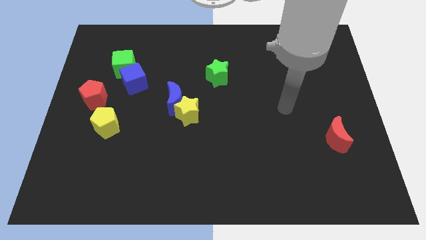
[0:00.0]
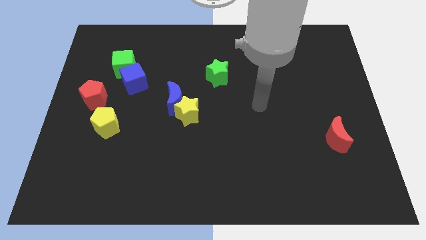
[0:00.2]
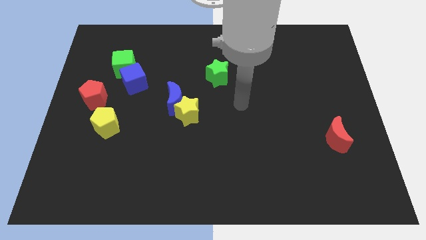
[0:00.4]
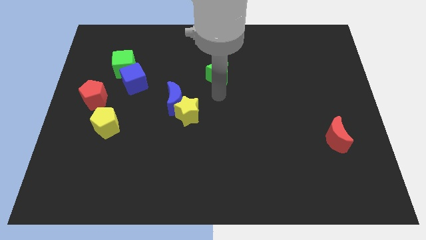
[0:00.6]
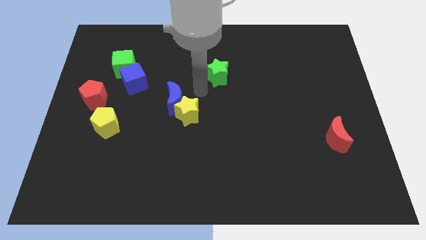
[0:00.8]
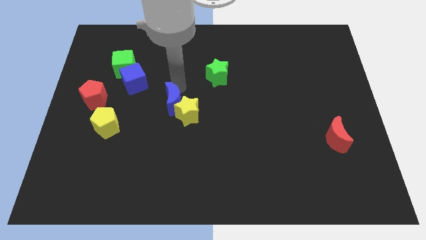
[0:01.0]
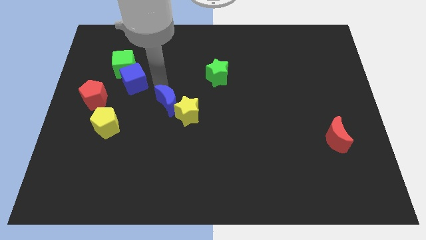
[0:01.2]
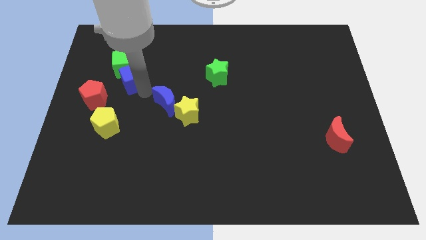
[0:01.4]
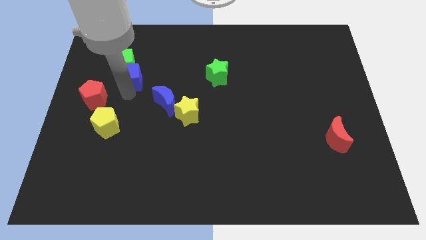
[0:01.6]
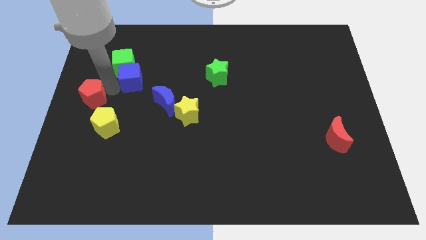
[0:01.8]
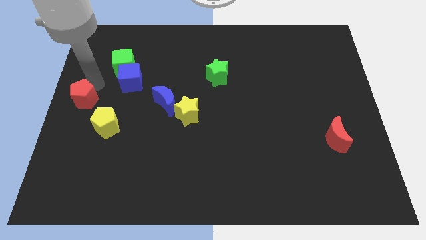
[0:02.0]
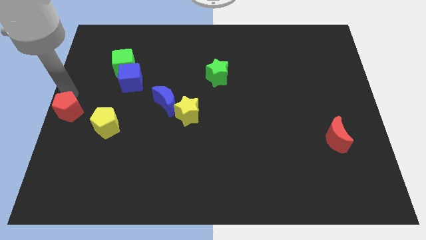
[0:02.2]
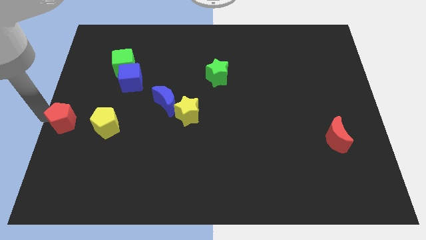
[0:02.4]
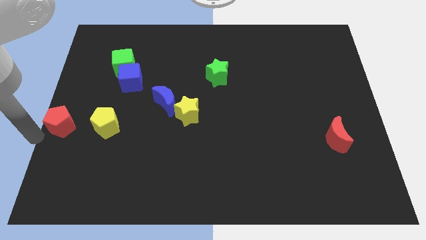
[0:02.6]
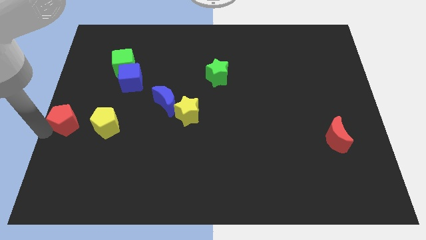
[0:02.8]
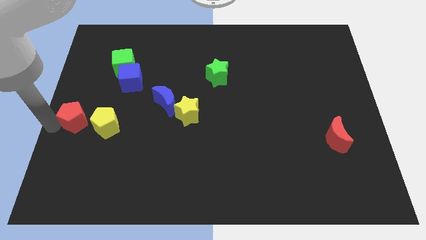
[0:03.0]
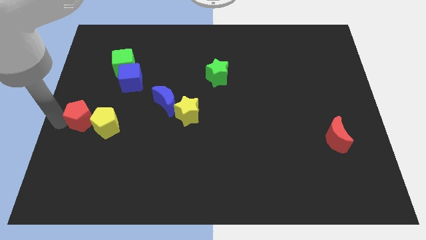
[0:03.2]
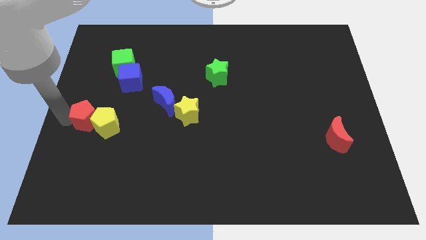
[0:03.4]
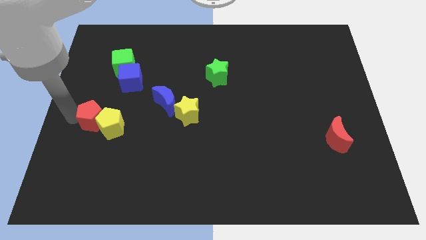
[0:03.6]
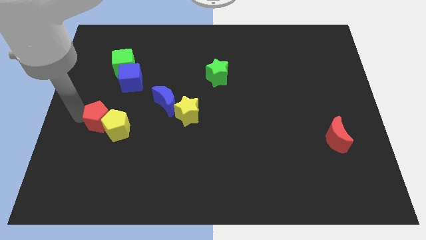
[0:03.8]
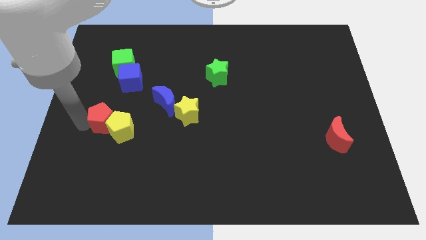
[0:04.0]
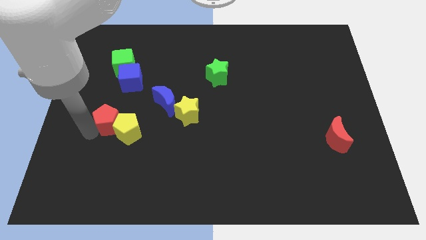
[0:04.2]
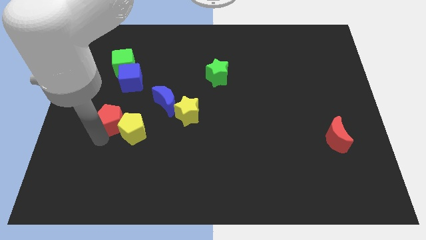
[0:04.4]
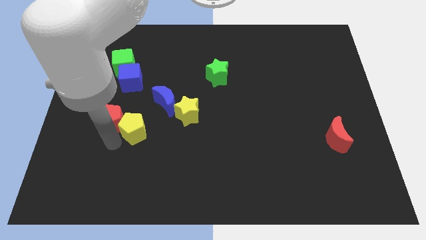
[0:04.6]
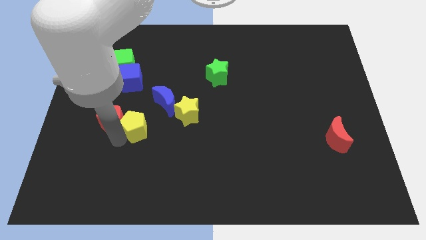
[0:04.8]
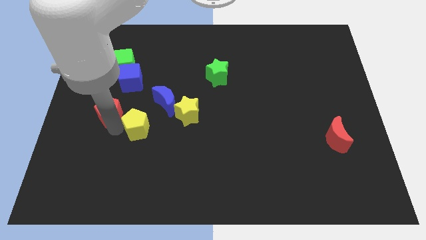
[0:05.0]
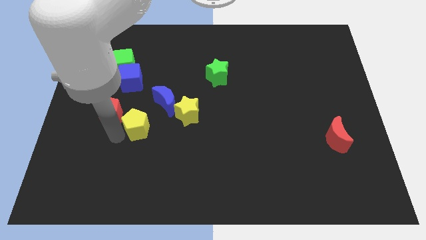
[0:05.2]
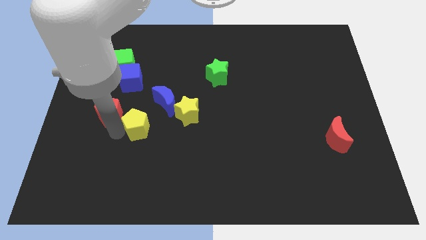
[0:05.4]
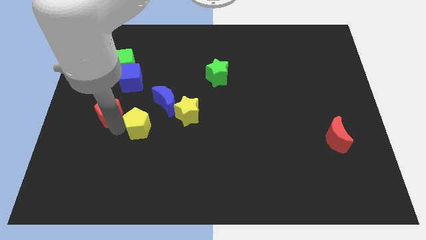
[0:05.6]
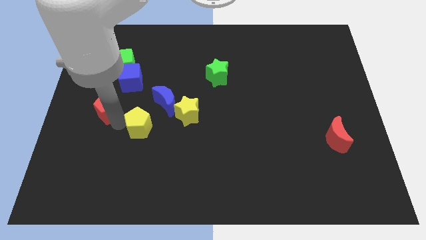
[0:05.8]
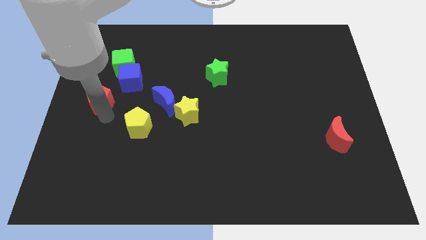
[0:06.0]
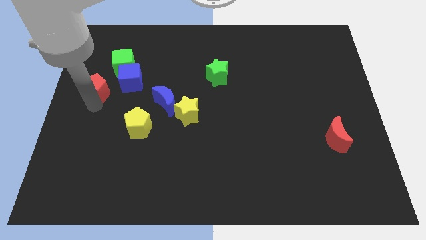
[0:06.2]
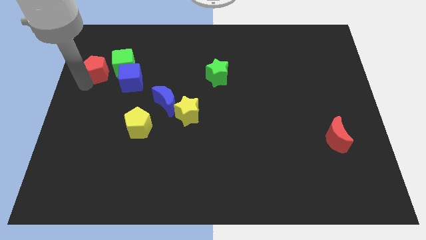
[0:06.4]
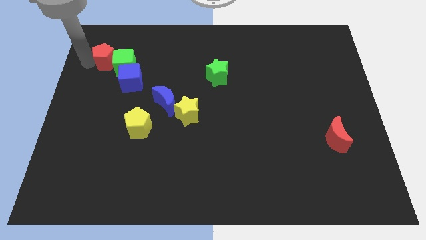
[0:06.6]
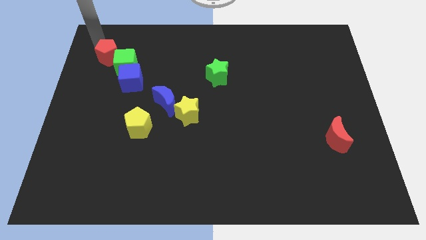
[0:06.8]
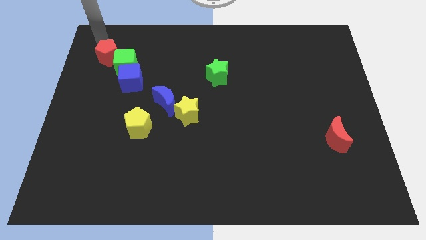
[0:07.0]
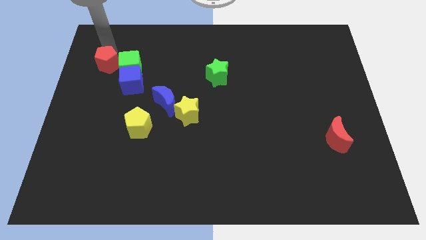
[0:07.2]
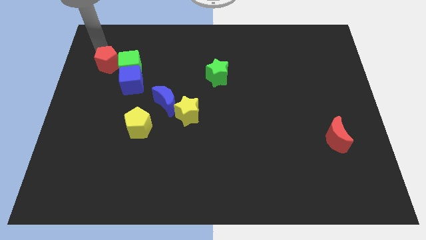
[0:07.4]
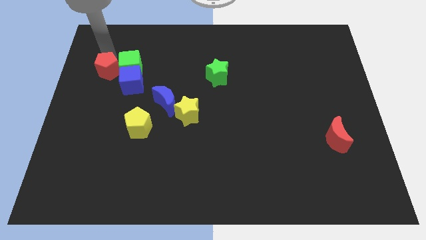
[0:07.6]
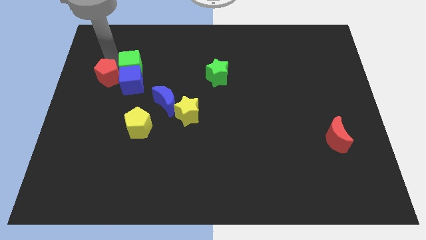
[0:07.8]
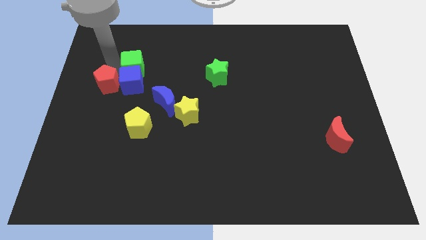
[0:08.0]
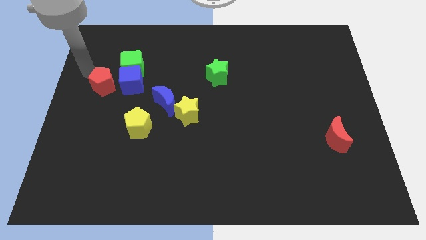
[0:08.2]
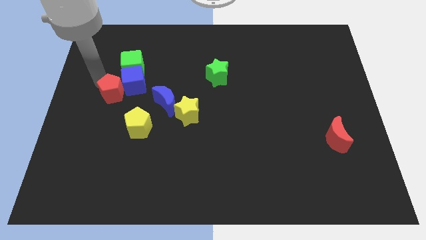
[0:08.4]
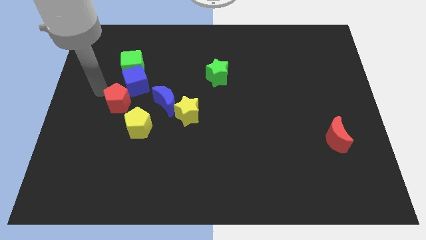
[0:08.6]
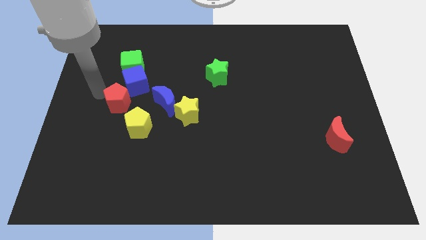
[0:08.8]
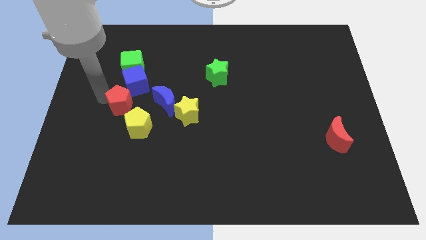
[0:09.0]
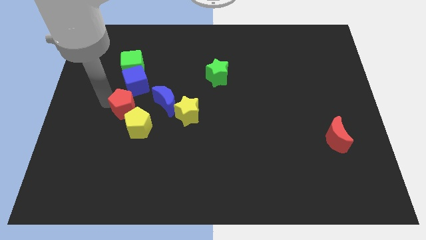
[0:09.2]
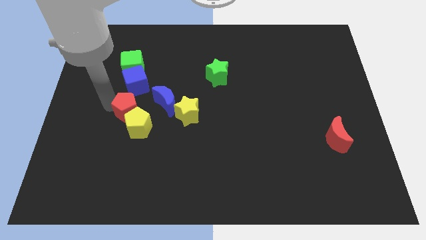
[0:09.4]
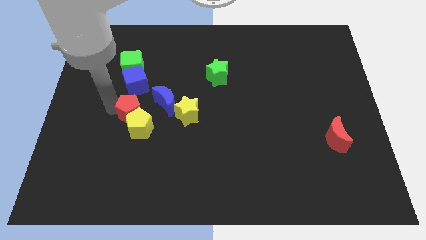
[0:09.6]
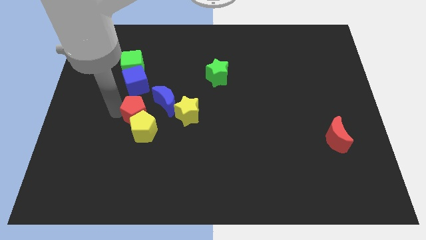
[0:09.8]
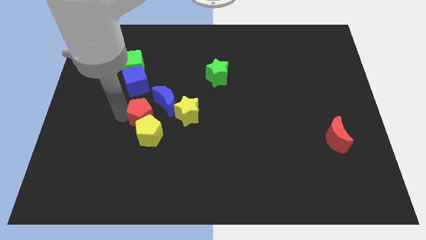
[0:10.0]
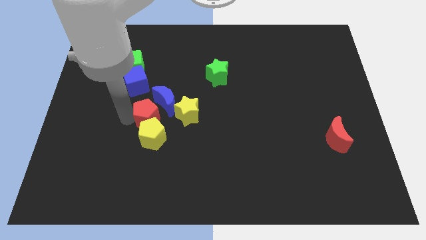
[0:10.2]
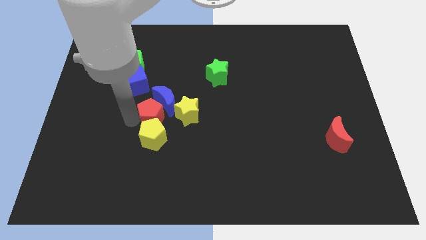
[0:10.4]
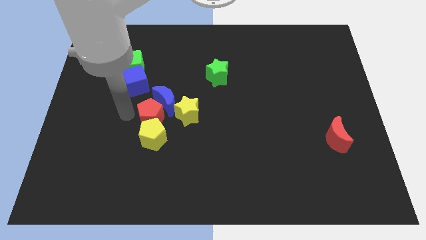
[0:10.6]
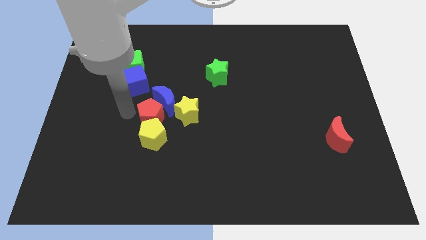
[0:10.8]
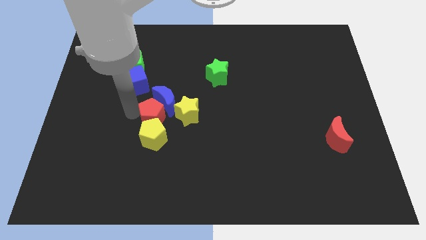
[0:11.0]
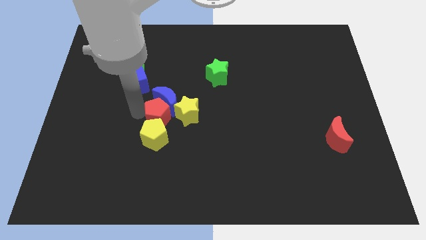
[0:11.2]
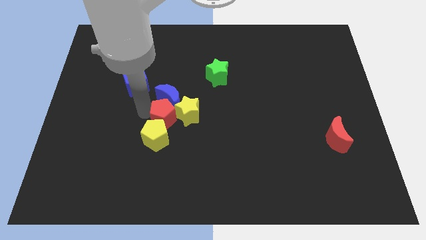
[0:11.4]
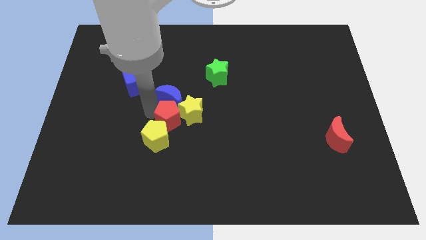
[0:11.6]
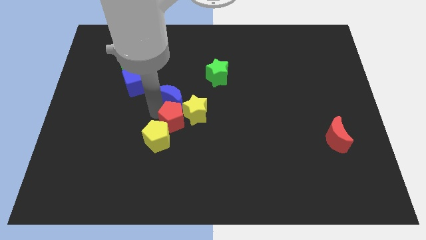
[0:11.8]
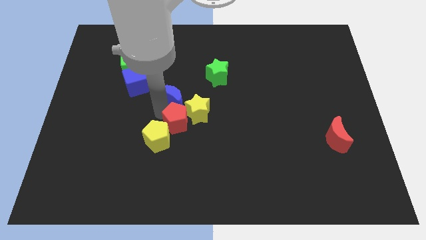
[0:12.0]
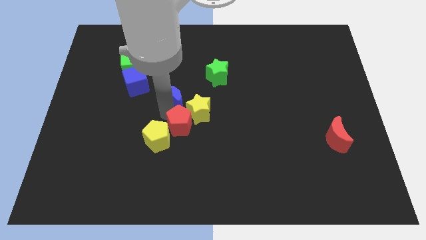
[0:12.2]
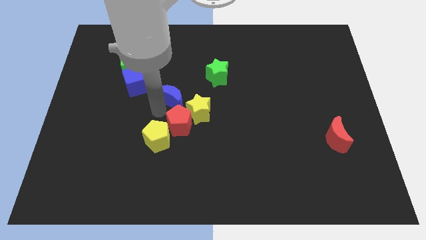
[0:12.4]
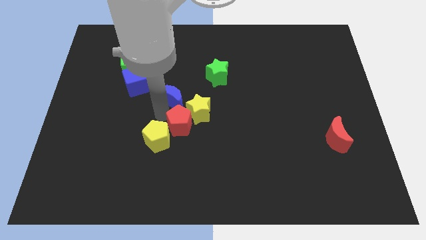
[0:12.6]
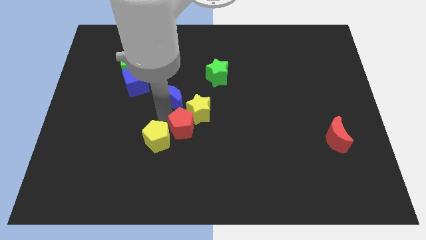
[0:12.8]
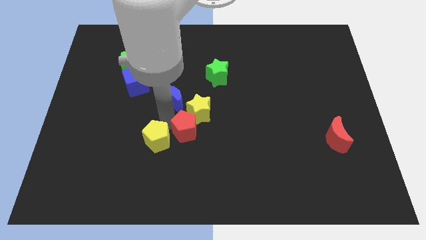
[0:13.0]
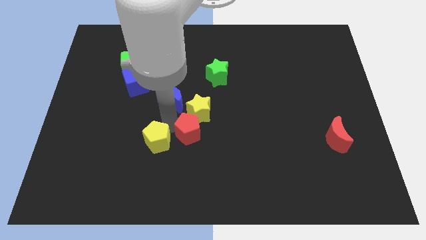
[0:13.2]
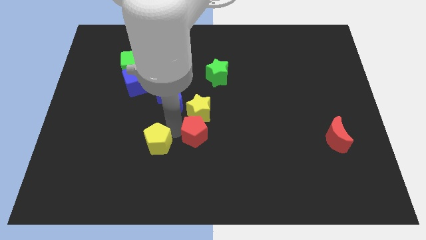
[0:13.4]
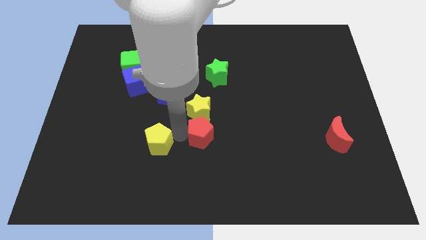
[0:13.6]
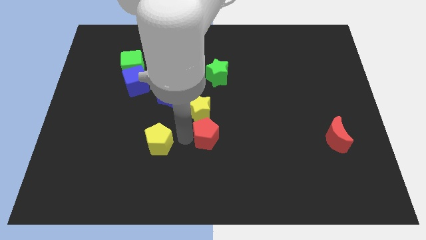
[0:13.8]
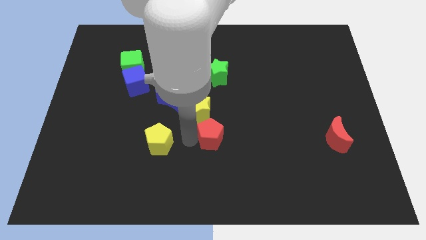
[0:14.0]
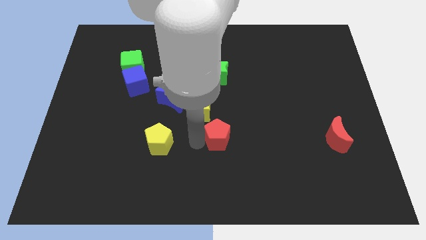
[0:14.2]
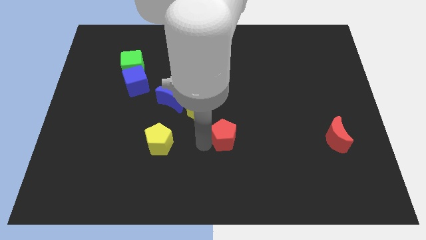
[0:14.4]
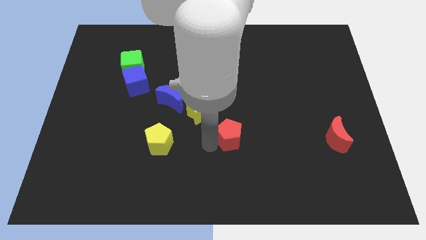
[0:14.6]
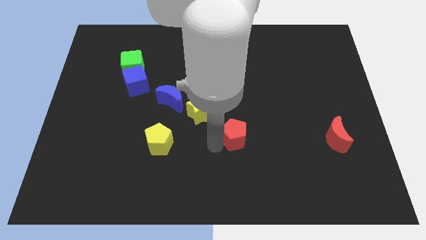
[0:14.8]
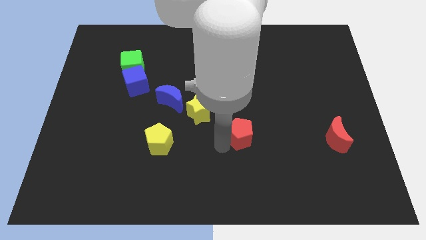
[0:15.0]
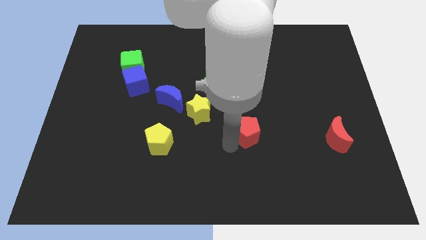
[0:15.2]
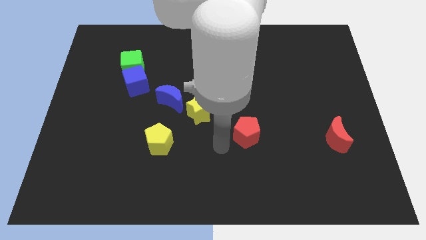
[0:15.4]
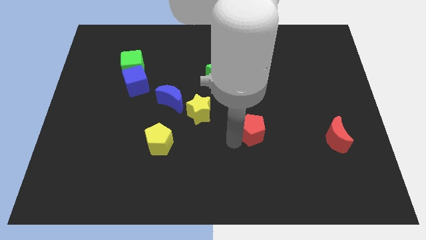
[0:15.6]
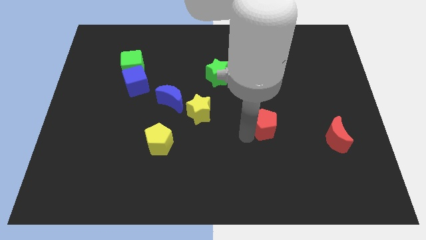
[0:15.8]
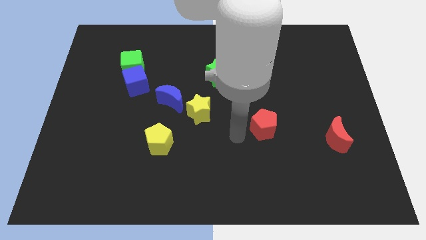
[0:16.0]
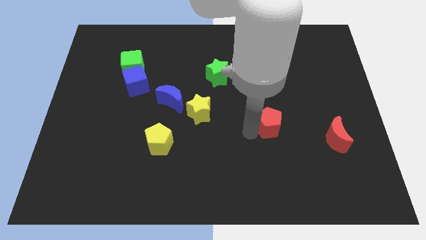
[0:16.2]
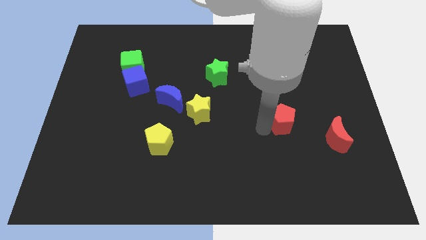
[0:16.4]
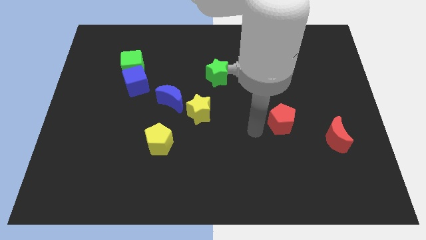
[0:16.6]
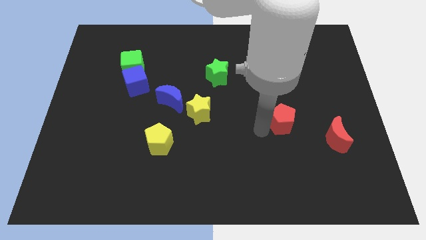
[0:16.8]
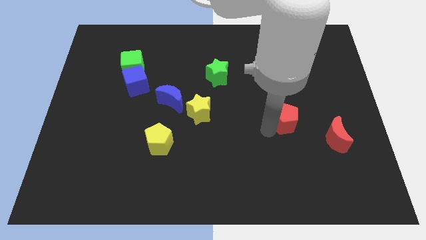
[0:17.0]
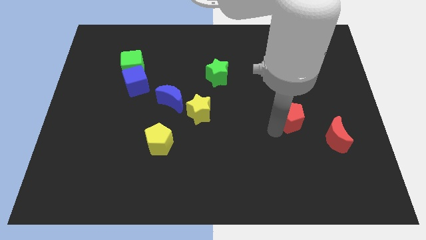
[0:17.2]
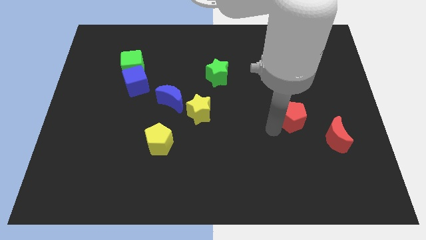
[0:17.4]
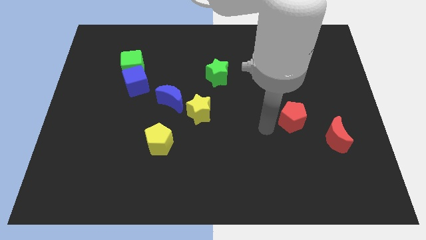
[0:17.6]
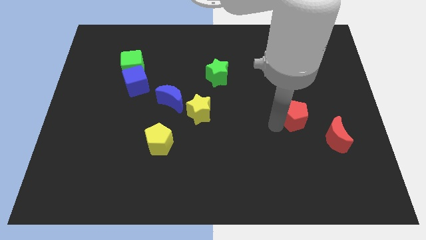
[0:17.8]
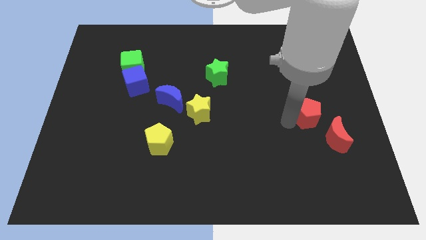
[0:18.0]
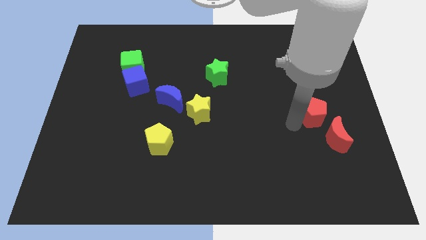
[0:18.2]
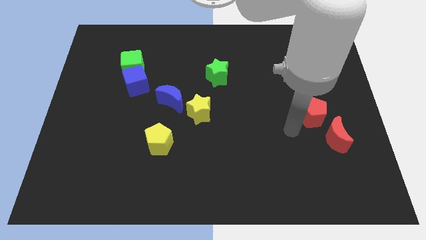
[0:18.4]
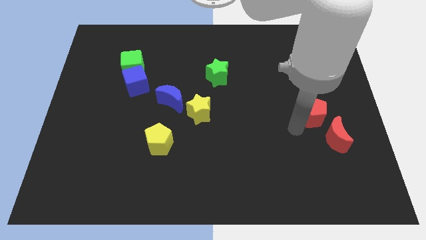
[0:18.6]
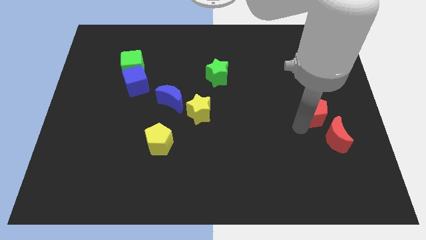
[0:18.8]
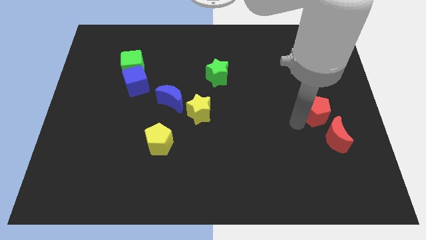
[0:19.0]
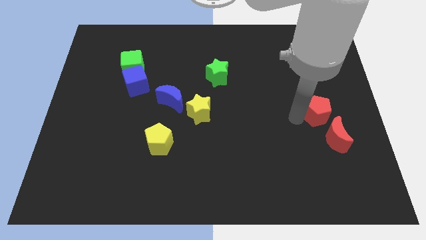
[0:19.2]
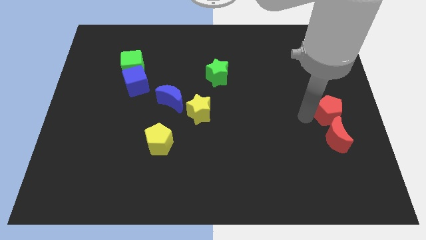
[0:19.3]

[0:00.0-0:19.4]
move the red pentagon to the center right
